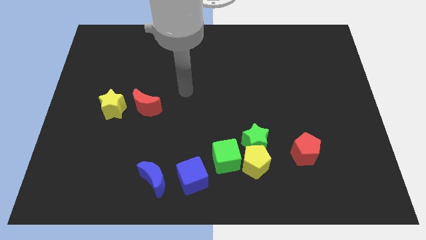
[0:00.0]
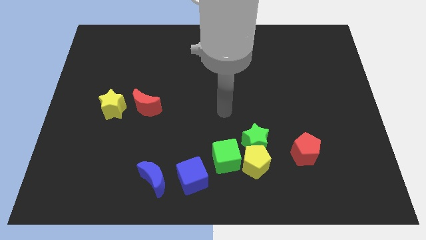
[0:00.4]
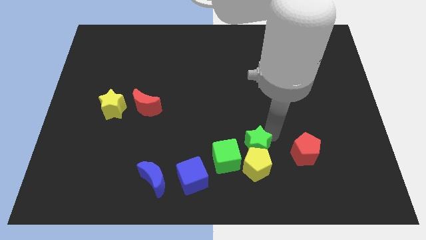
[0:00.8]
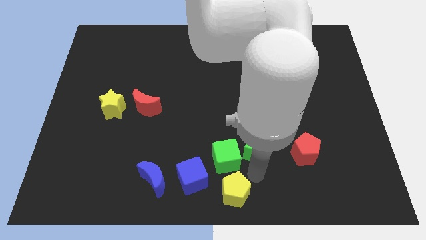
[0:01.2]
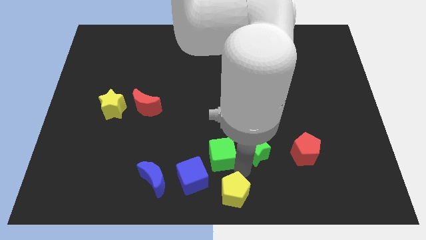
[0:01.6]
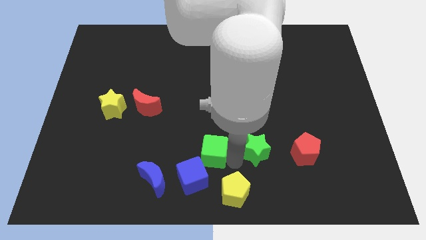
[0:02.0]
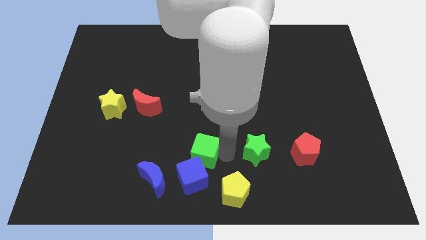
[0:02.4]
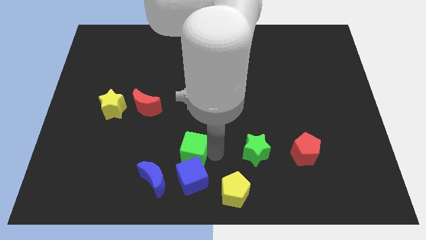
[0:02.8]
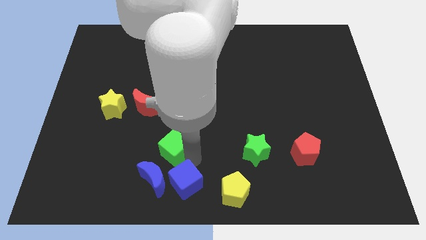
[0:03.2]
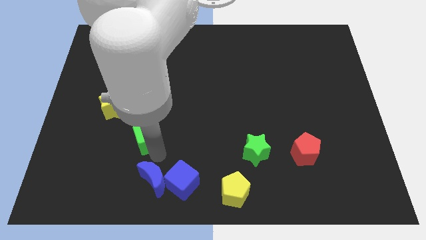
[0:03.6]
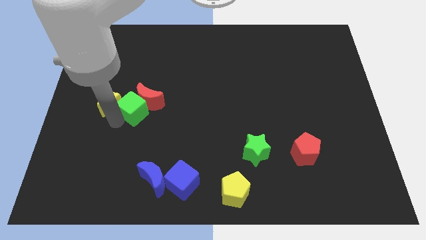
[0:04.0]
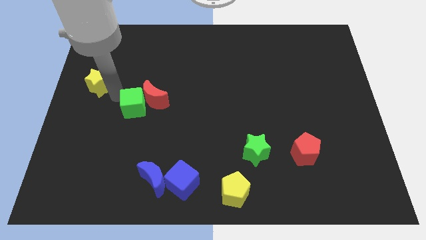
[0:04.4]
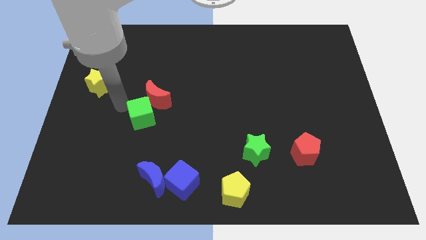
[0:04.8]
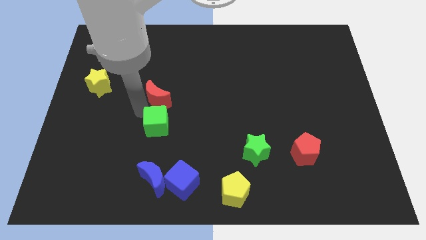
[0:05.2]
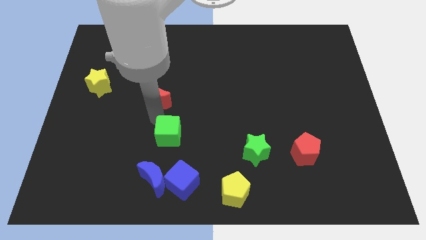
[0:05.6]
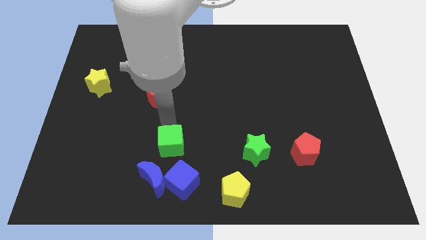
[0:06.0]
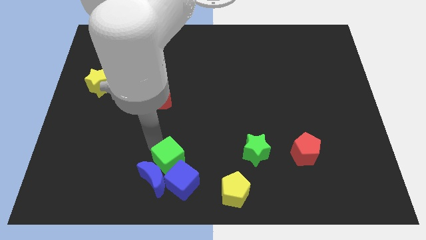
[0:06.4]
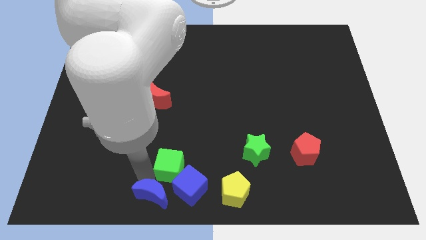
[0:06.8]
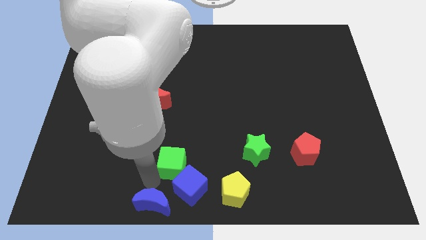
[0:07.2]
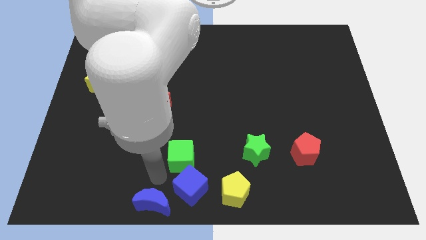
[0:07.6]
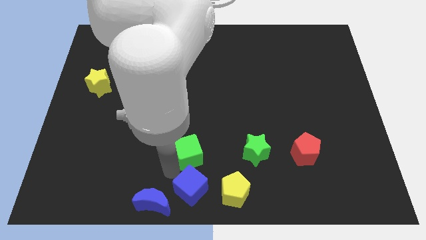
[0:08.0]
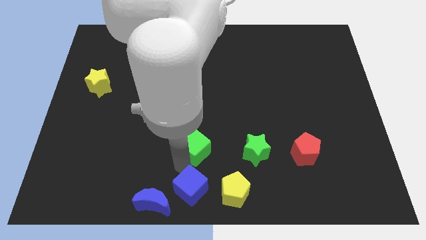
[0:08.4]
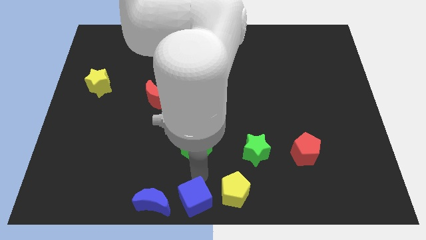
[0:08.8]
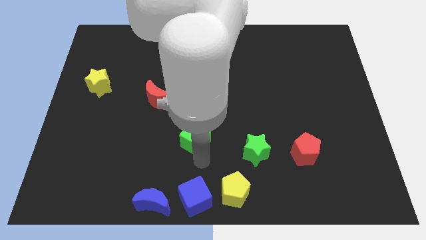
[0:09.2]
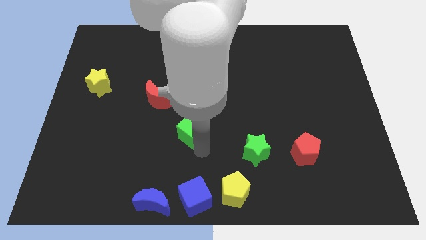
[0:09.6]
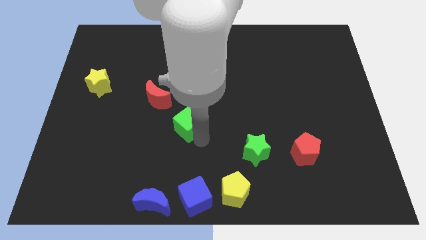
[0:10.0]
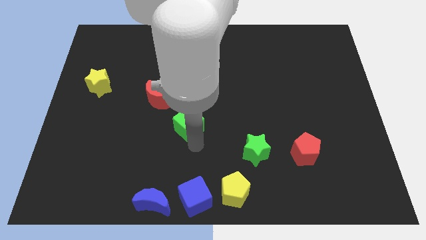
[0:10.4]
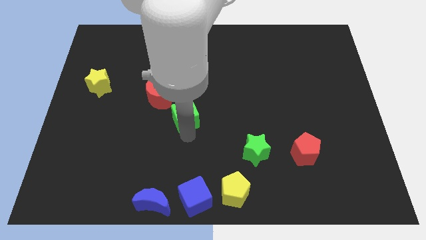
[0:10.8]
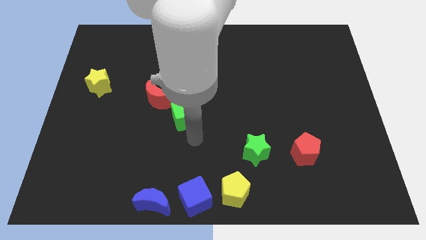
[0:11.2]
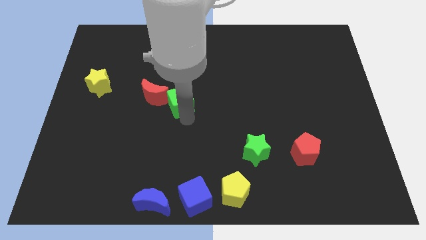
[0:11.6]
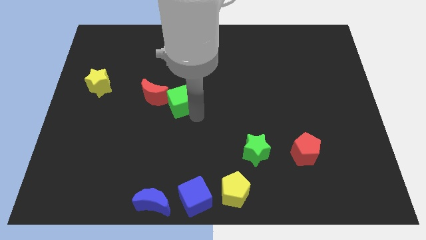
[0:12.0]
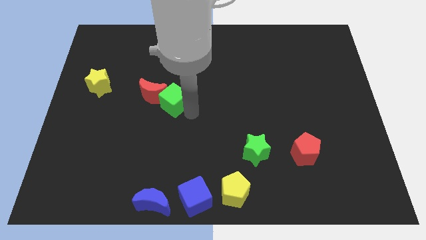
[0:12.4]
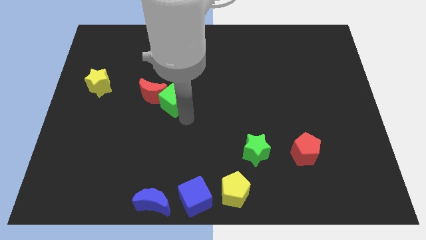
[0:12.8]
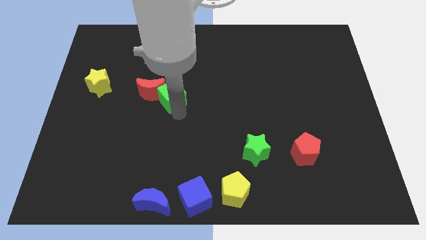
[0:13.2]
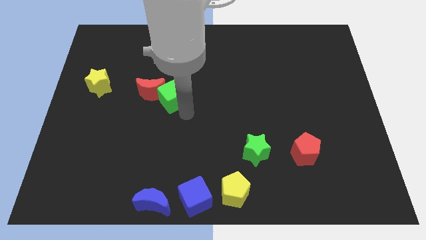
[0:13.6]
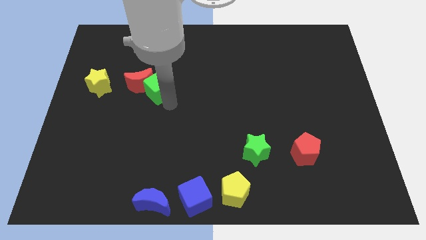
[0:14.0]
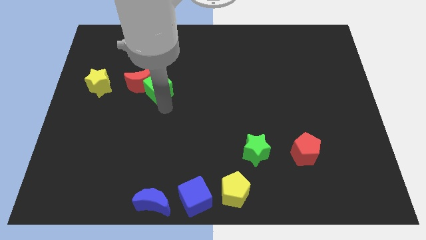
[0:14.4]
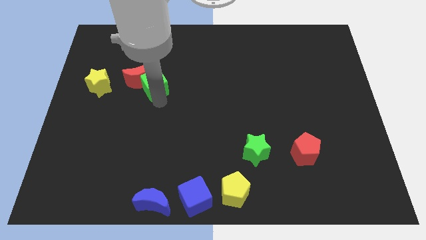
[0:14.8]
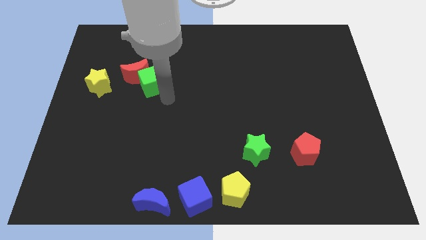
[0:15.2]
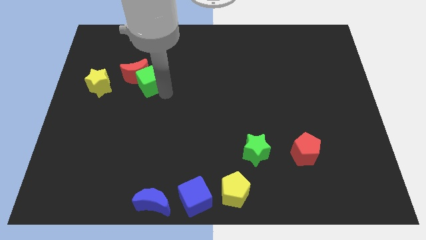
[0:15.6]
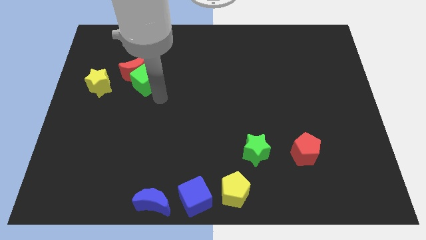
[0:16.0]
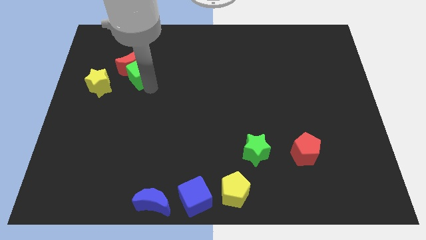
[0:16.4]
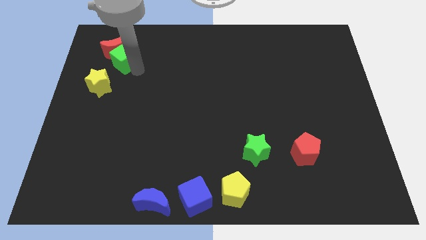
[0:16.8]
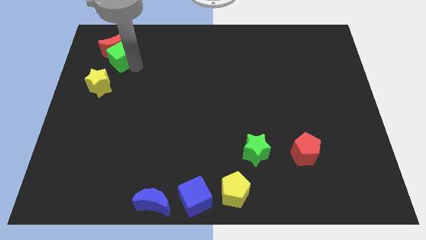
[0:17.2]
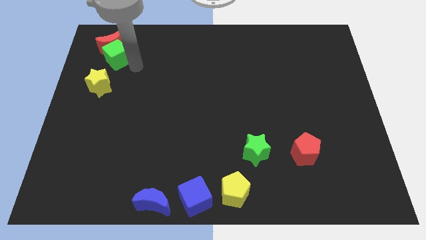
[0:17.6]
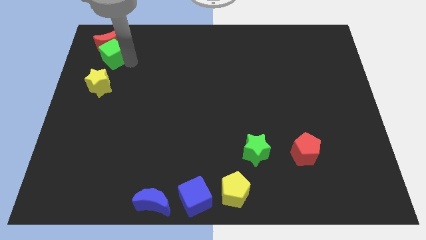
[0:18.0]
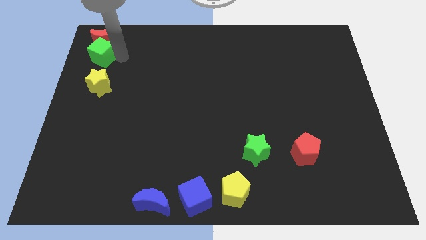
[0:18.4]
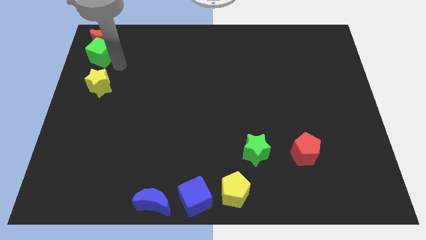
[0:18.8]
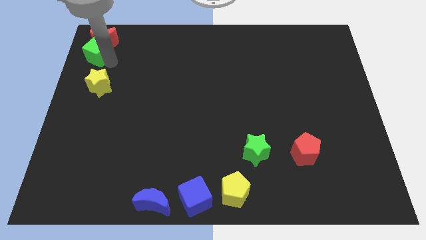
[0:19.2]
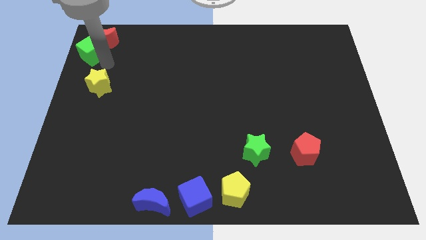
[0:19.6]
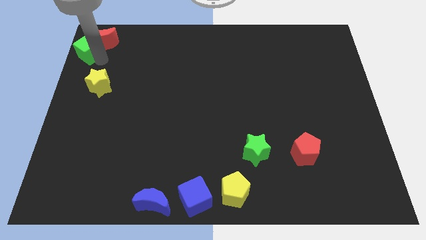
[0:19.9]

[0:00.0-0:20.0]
slide the green cube to the top left of the board

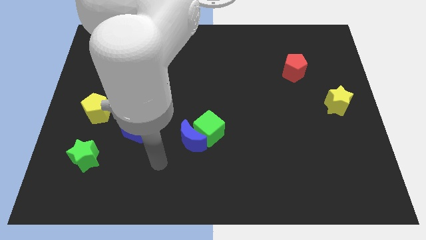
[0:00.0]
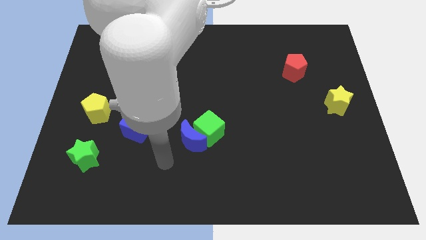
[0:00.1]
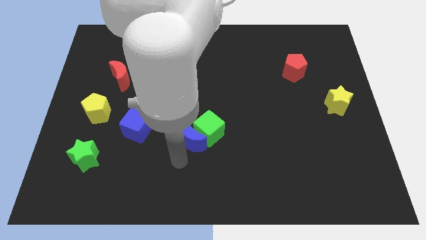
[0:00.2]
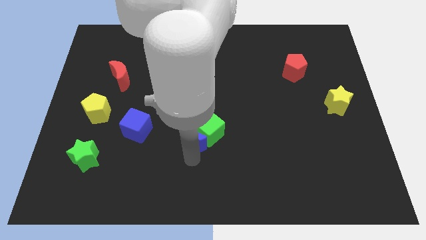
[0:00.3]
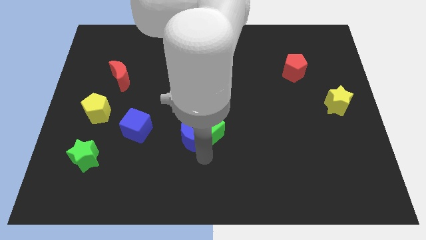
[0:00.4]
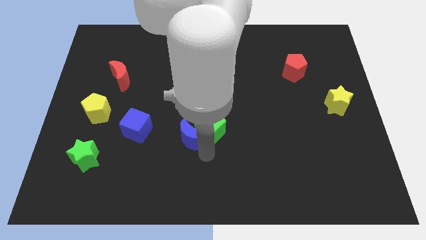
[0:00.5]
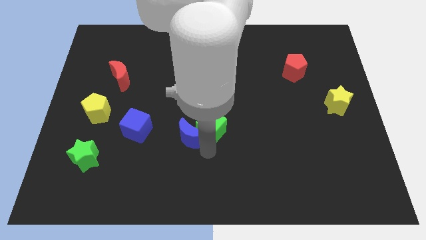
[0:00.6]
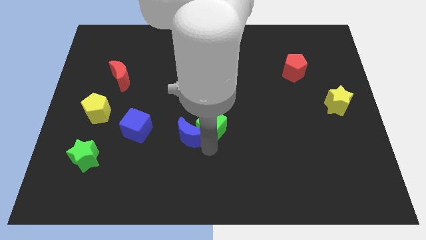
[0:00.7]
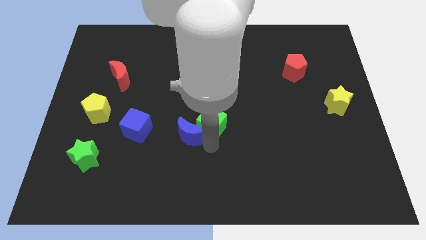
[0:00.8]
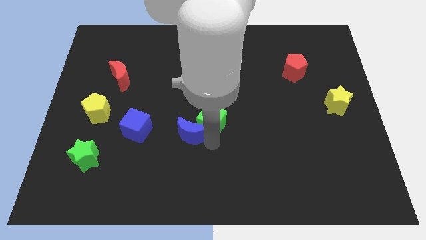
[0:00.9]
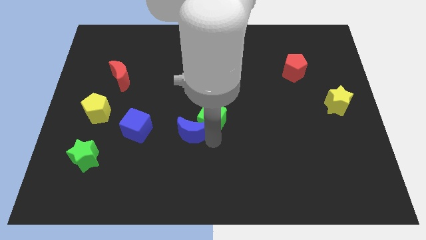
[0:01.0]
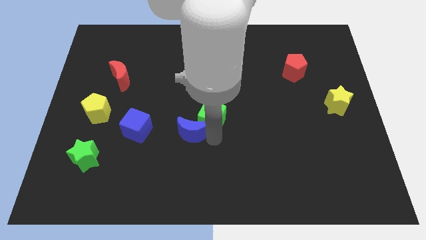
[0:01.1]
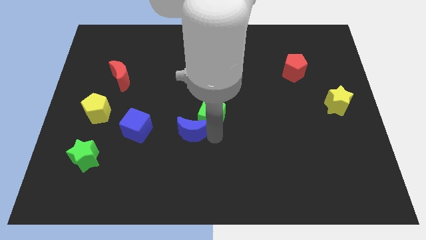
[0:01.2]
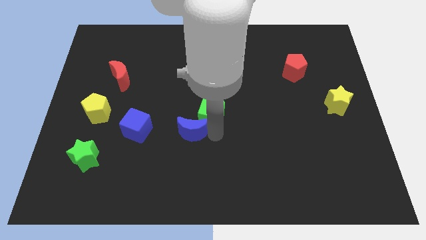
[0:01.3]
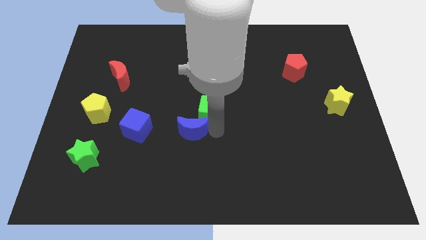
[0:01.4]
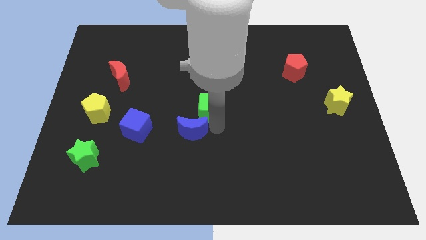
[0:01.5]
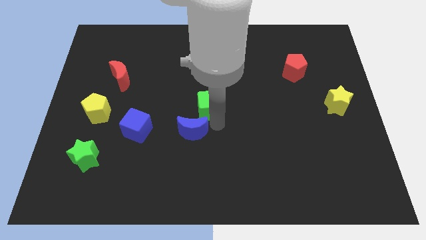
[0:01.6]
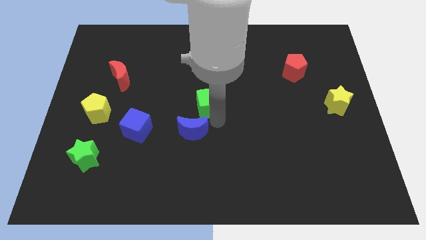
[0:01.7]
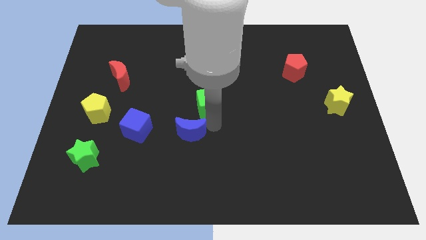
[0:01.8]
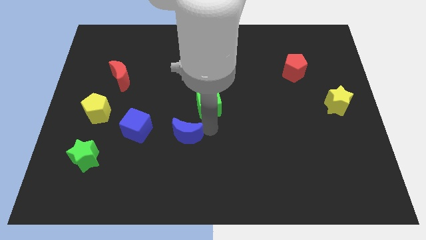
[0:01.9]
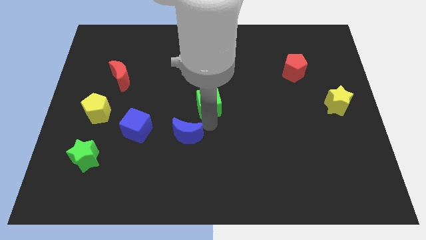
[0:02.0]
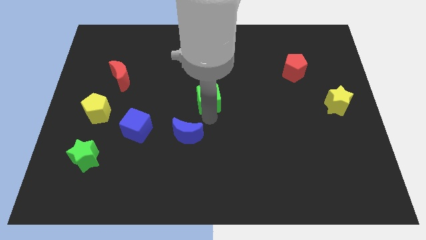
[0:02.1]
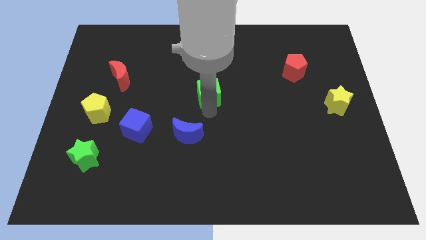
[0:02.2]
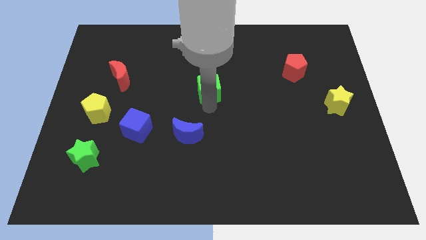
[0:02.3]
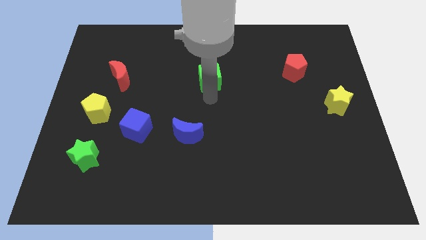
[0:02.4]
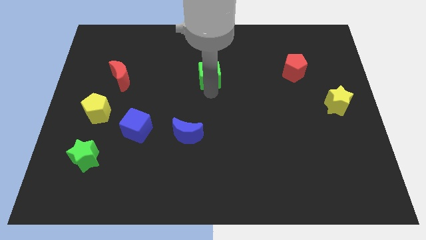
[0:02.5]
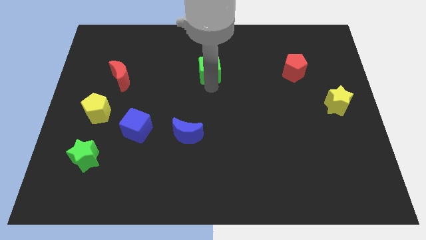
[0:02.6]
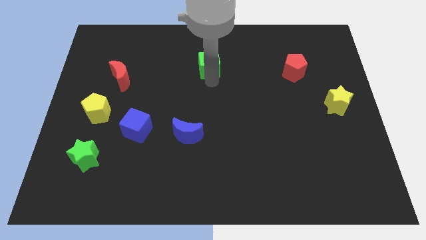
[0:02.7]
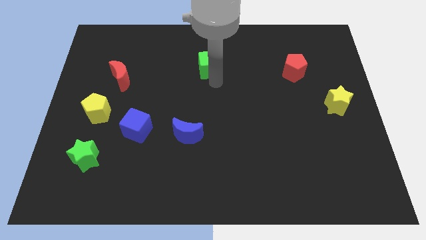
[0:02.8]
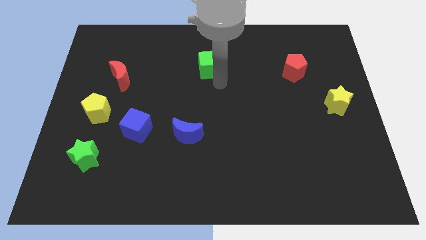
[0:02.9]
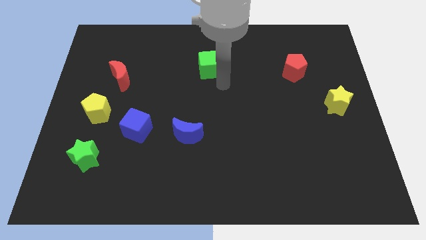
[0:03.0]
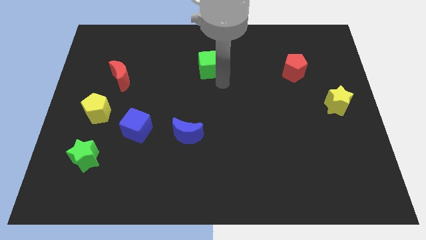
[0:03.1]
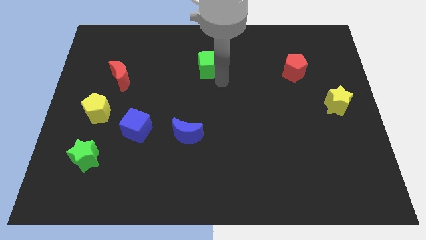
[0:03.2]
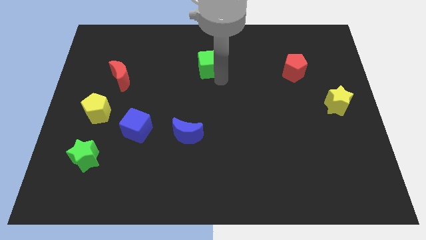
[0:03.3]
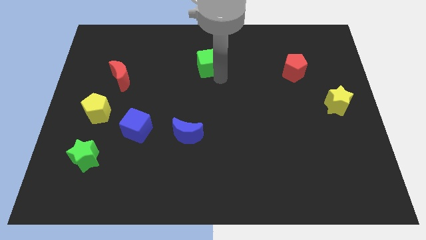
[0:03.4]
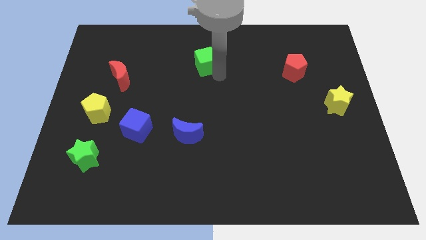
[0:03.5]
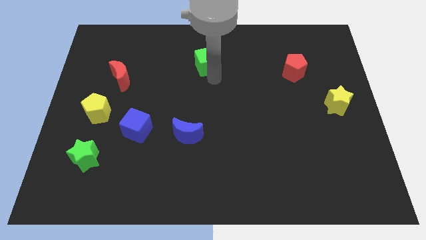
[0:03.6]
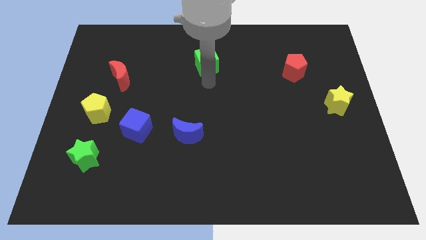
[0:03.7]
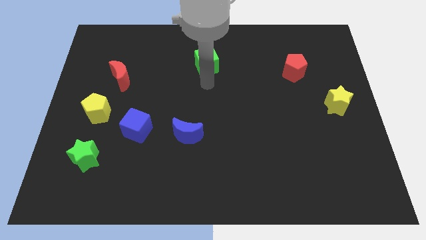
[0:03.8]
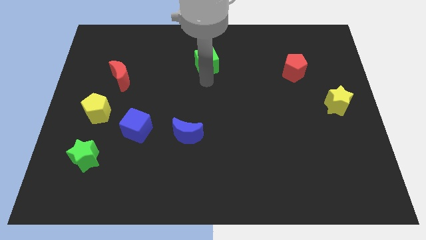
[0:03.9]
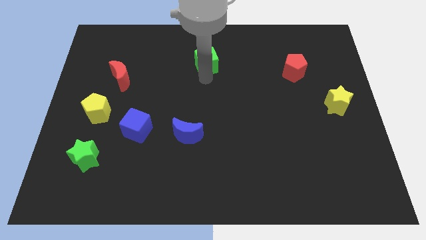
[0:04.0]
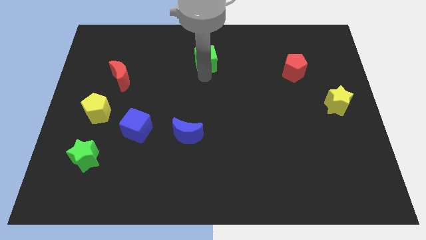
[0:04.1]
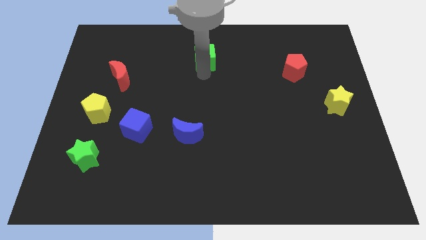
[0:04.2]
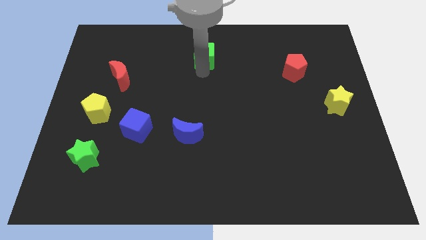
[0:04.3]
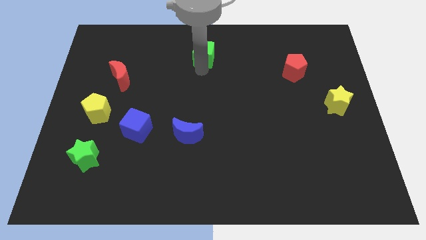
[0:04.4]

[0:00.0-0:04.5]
move the green cube to the top
